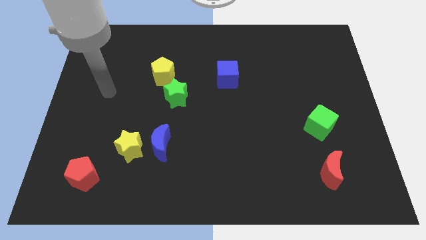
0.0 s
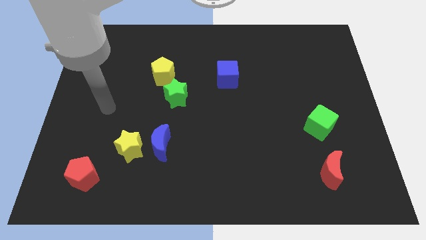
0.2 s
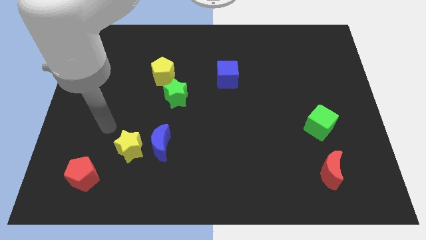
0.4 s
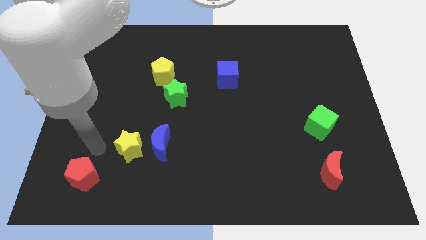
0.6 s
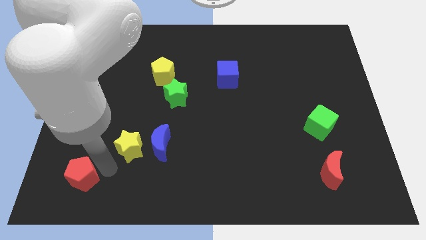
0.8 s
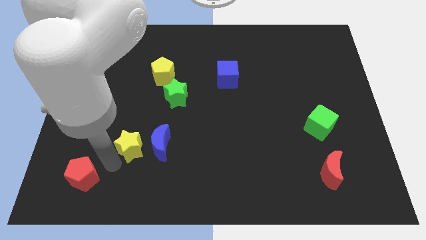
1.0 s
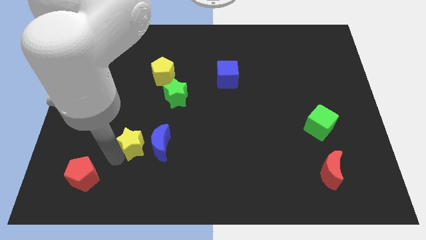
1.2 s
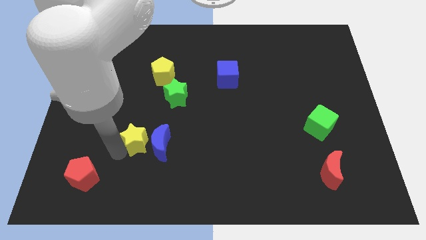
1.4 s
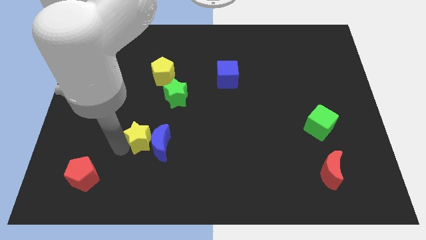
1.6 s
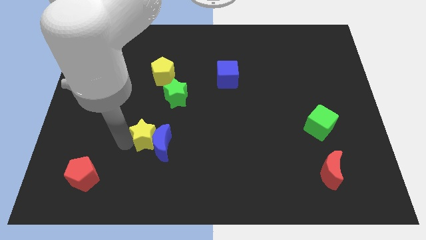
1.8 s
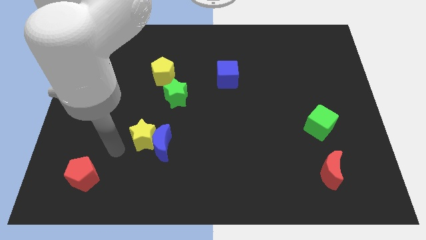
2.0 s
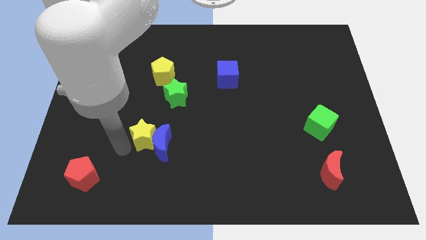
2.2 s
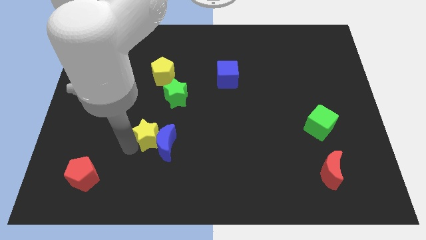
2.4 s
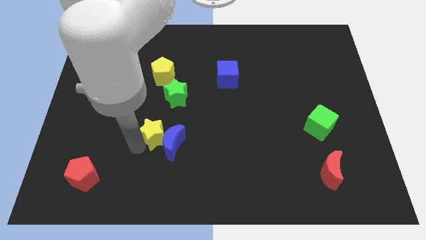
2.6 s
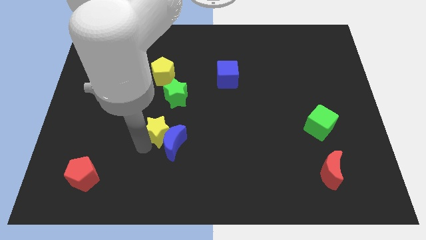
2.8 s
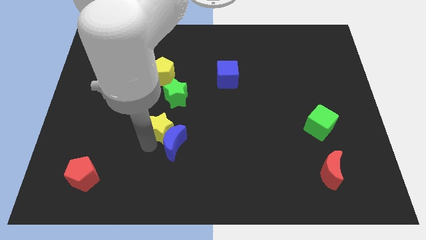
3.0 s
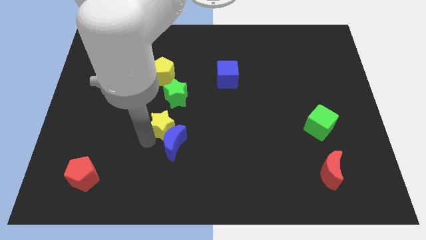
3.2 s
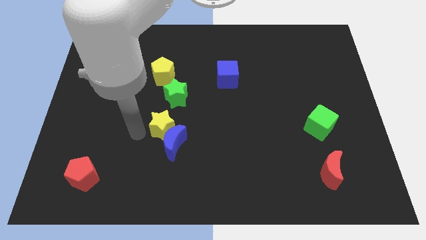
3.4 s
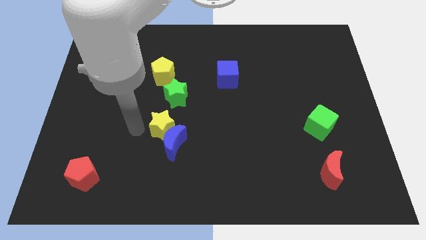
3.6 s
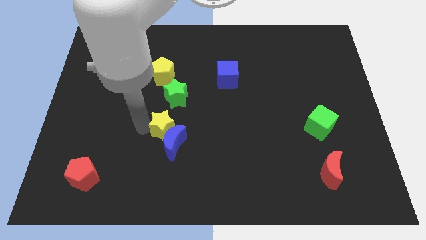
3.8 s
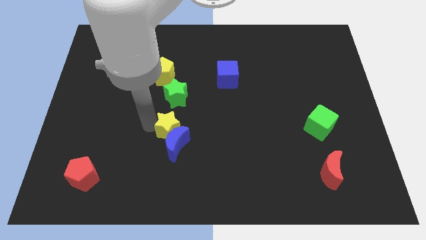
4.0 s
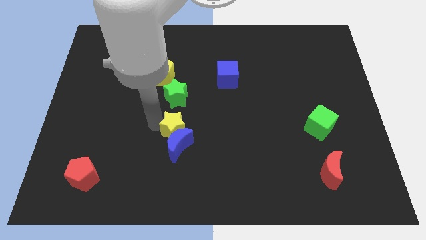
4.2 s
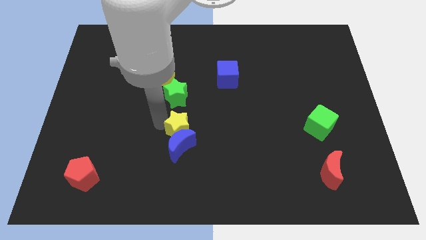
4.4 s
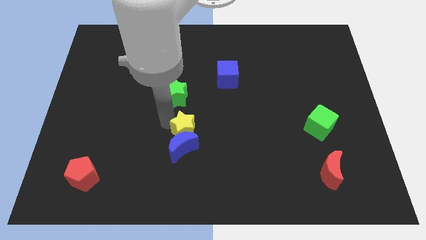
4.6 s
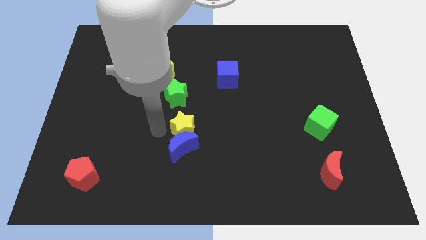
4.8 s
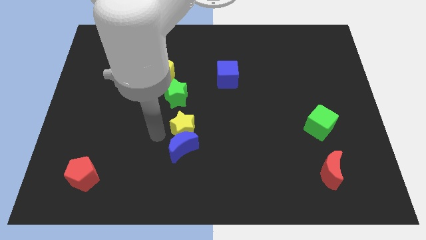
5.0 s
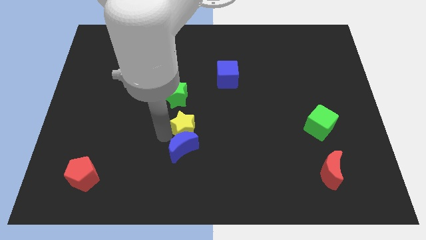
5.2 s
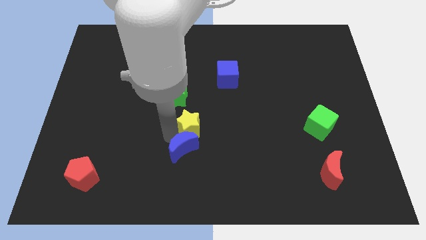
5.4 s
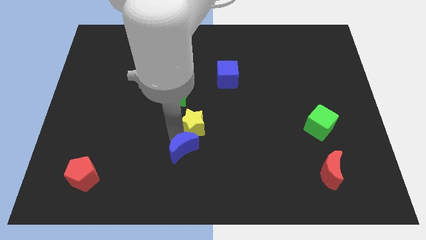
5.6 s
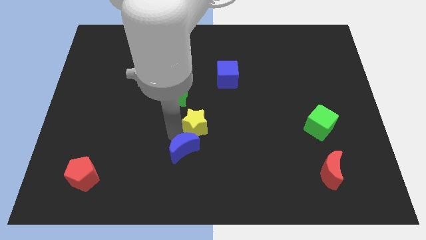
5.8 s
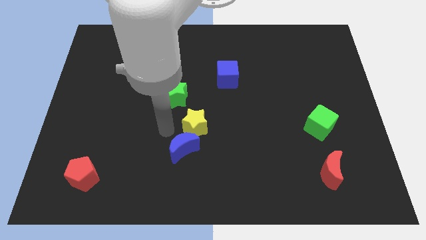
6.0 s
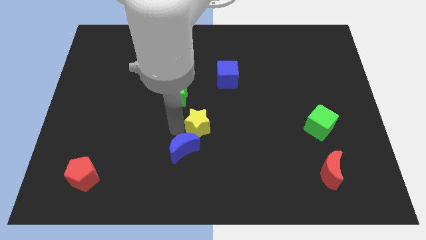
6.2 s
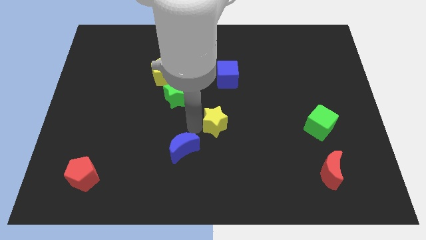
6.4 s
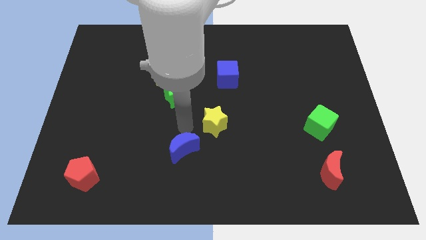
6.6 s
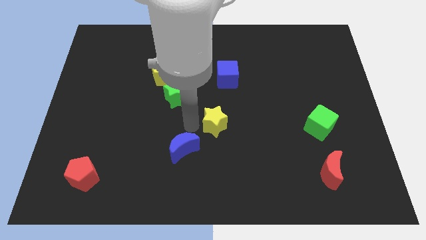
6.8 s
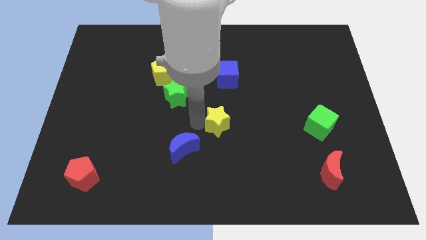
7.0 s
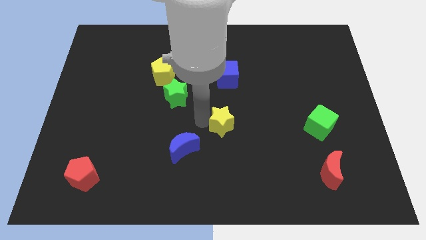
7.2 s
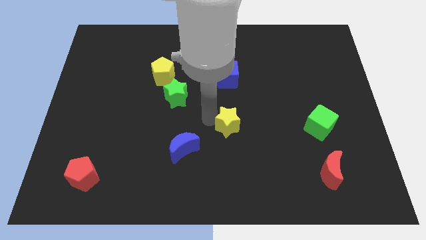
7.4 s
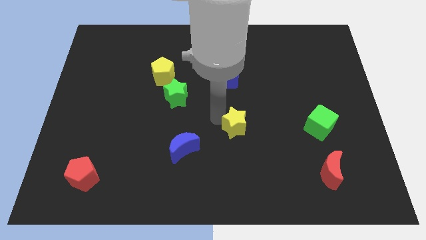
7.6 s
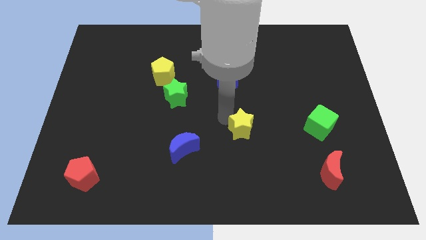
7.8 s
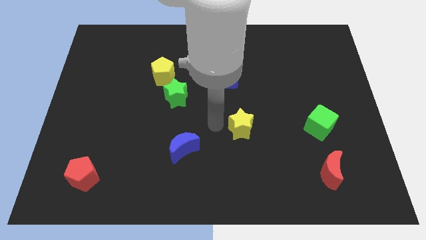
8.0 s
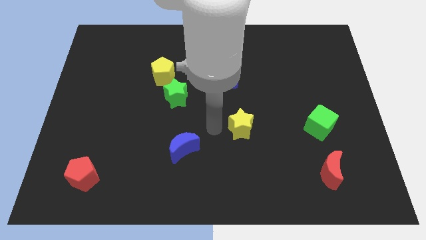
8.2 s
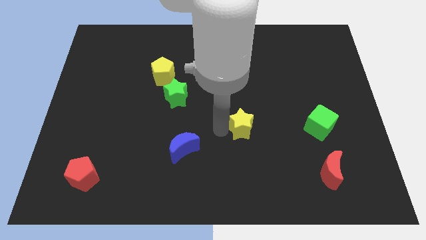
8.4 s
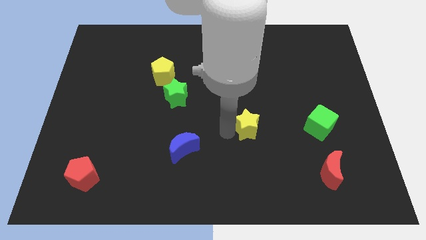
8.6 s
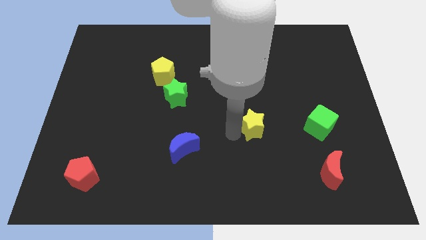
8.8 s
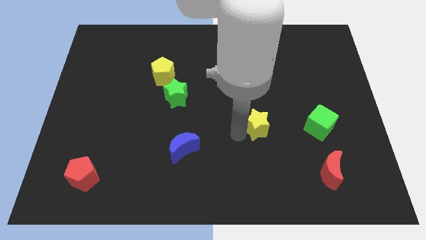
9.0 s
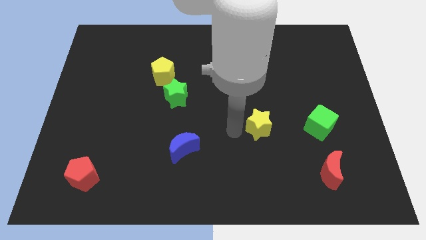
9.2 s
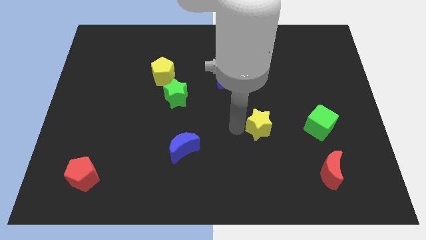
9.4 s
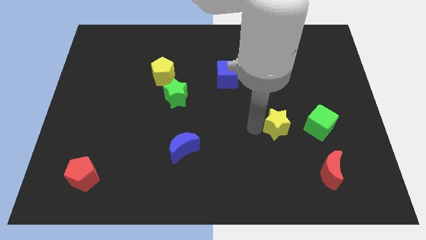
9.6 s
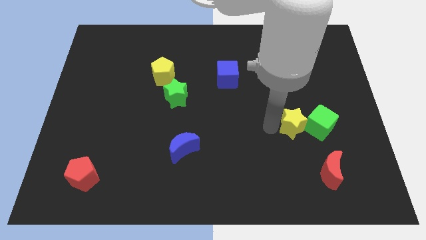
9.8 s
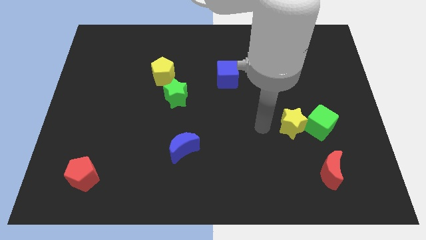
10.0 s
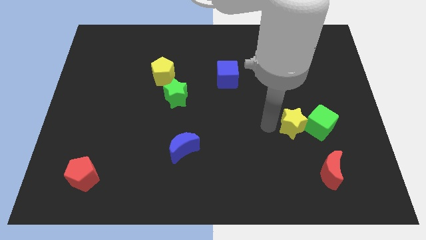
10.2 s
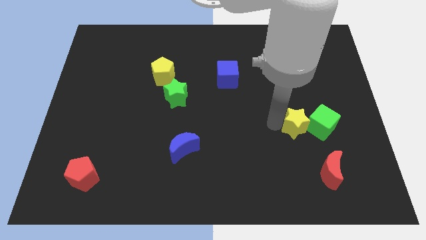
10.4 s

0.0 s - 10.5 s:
move the yellow star next to the green cube
